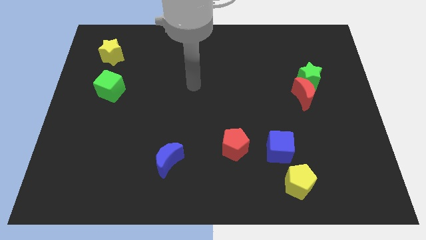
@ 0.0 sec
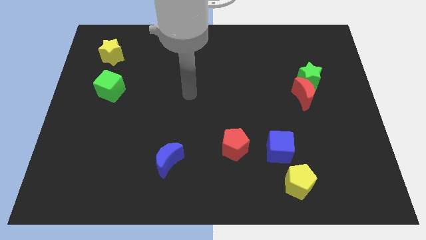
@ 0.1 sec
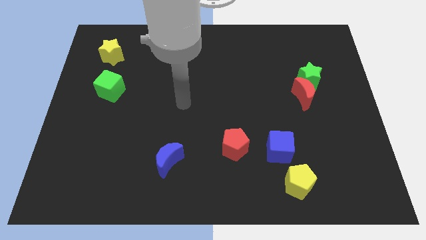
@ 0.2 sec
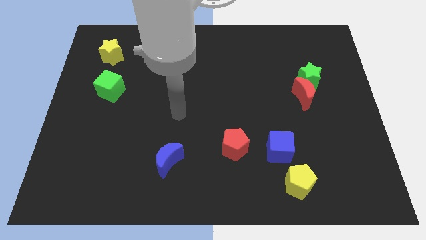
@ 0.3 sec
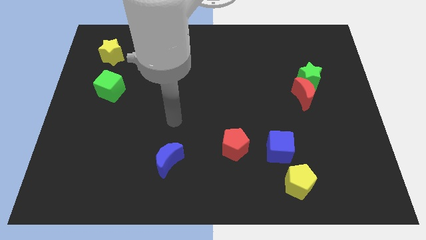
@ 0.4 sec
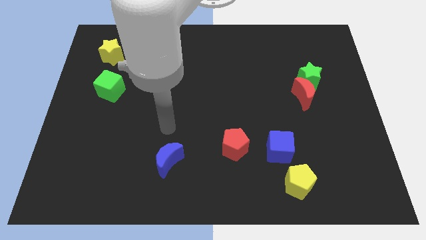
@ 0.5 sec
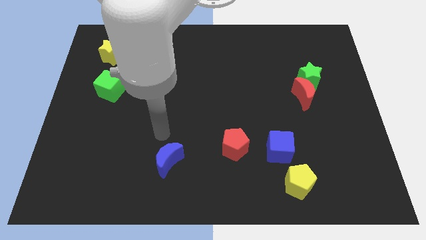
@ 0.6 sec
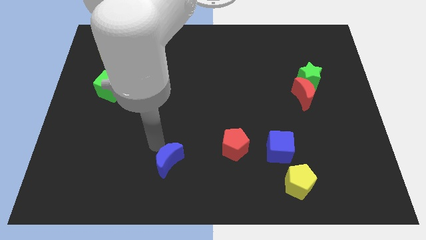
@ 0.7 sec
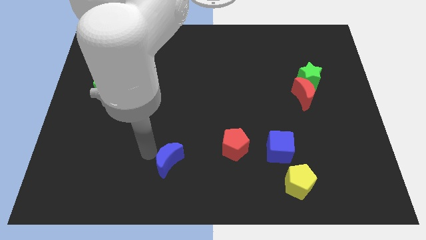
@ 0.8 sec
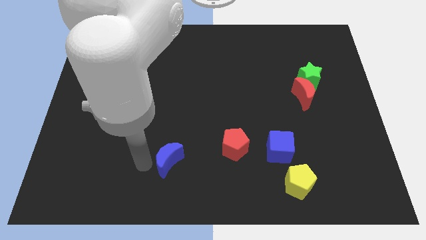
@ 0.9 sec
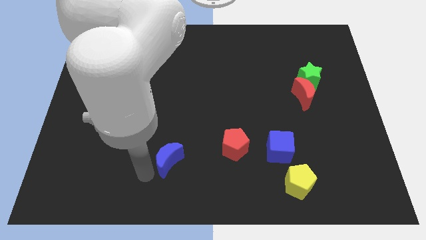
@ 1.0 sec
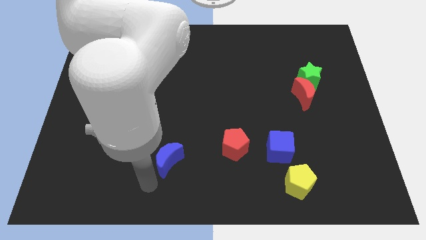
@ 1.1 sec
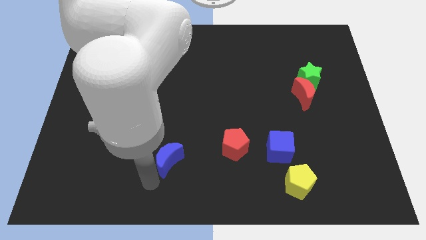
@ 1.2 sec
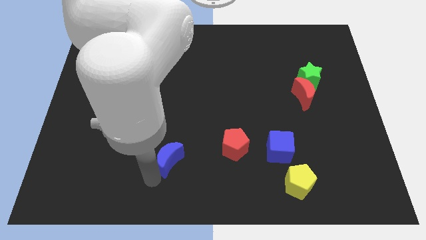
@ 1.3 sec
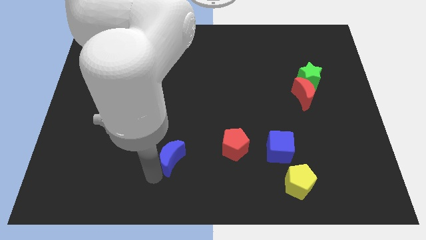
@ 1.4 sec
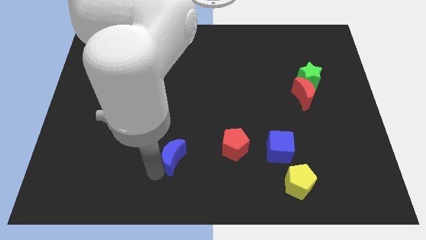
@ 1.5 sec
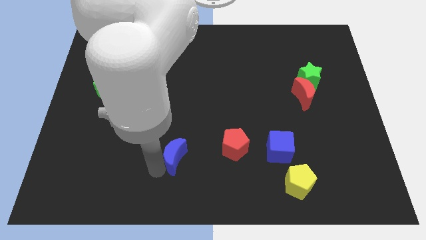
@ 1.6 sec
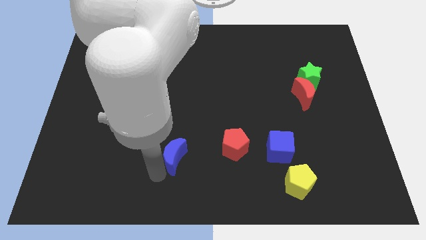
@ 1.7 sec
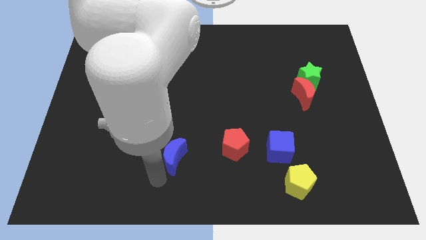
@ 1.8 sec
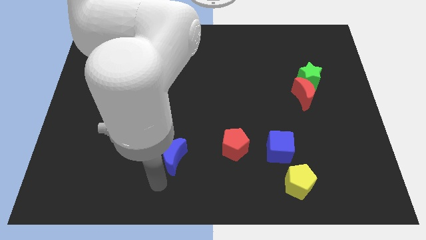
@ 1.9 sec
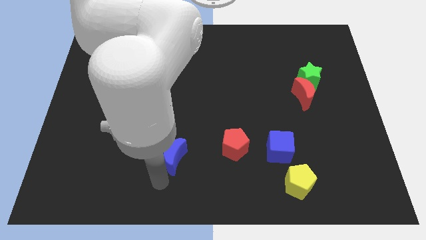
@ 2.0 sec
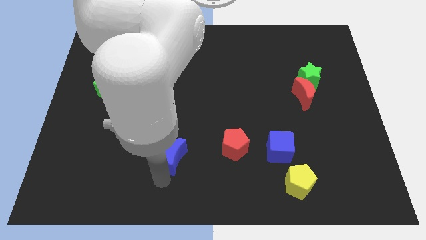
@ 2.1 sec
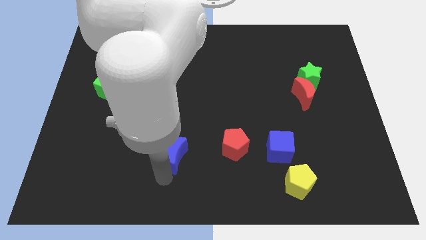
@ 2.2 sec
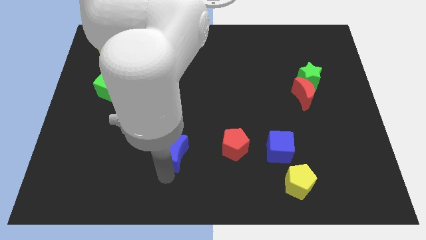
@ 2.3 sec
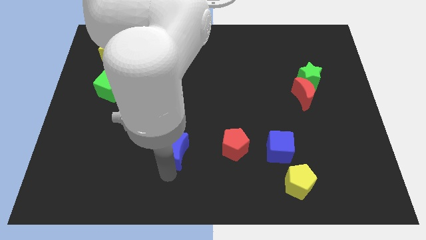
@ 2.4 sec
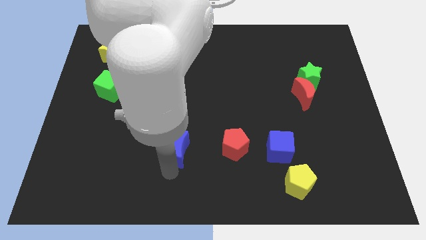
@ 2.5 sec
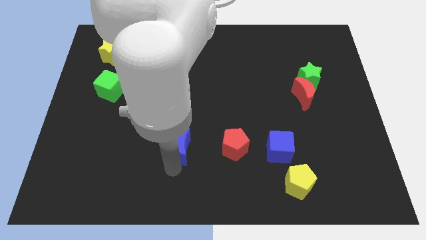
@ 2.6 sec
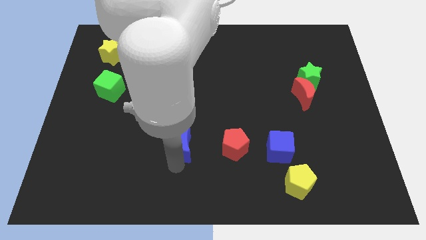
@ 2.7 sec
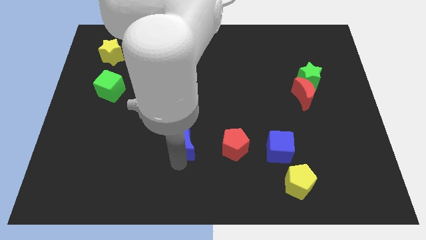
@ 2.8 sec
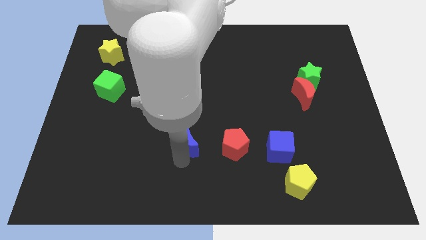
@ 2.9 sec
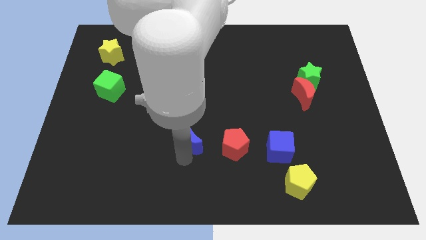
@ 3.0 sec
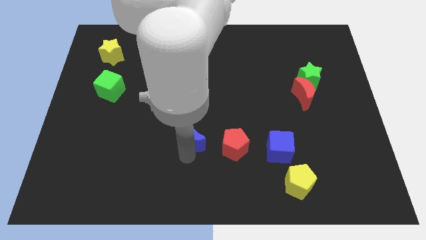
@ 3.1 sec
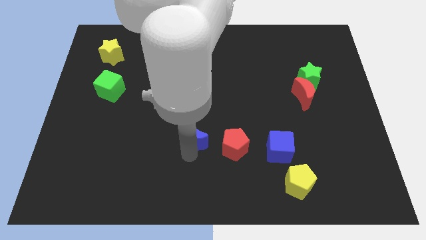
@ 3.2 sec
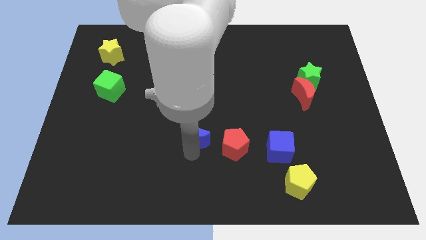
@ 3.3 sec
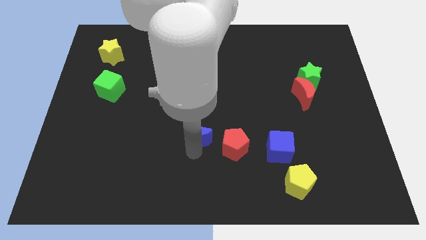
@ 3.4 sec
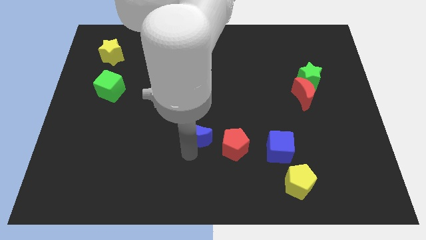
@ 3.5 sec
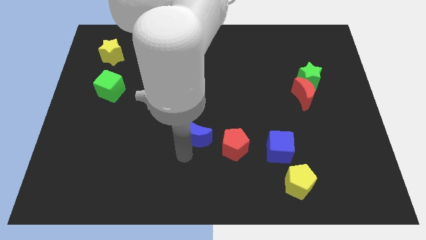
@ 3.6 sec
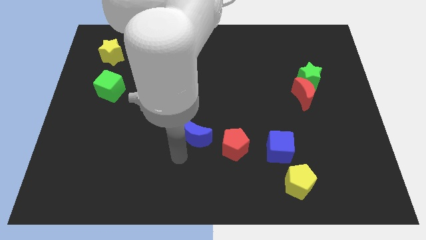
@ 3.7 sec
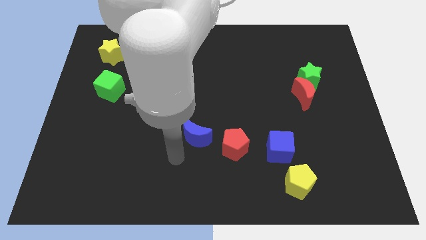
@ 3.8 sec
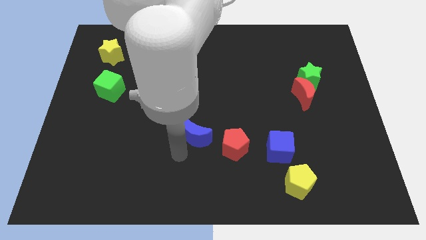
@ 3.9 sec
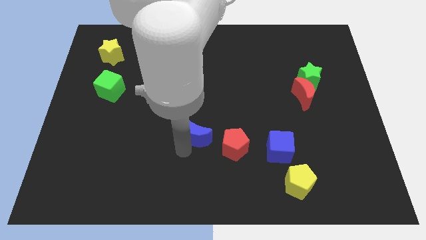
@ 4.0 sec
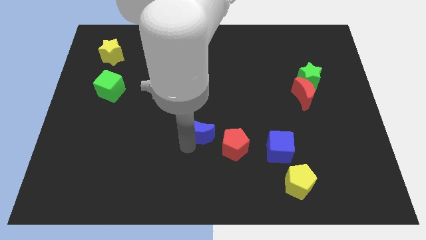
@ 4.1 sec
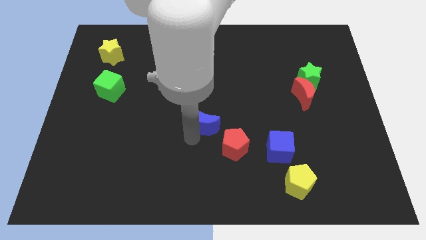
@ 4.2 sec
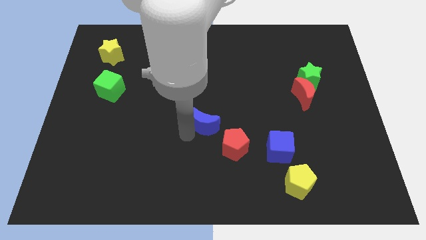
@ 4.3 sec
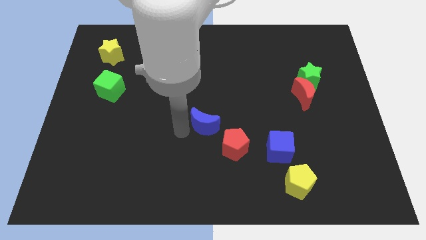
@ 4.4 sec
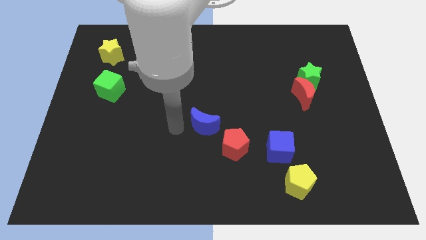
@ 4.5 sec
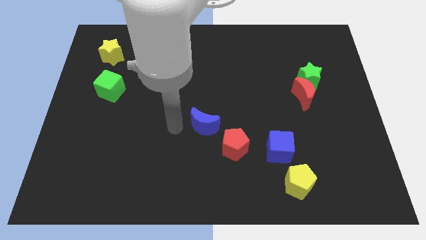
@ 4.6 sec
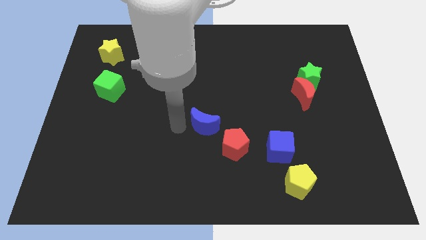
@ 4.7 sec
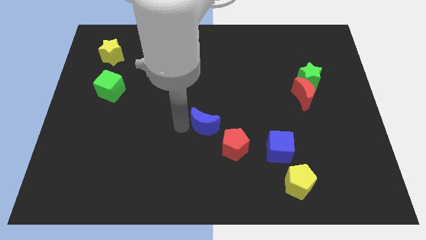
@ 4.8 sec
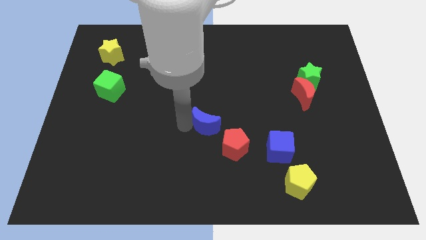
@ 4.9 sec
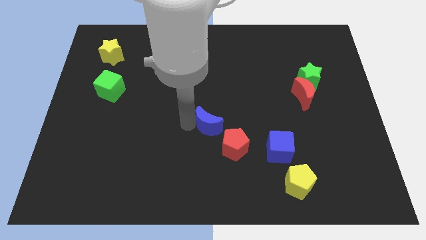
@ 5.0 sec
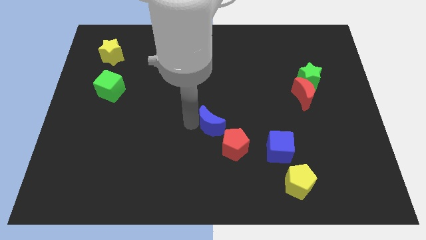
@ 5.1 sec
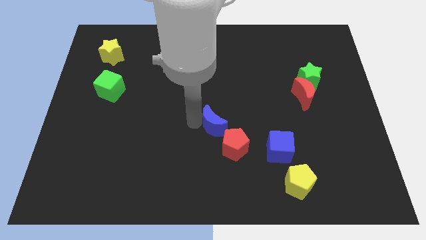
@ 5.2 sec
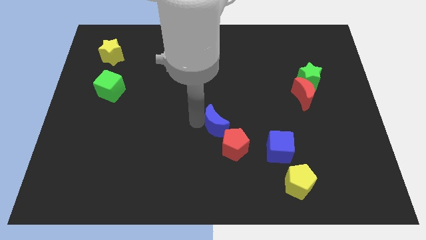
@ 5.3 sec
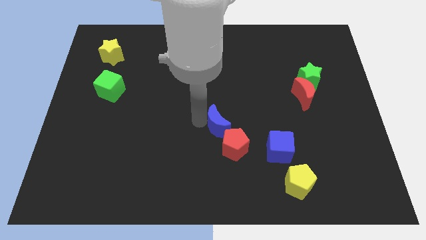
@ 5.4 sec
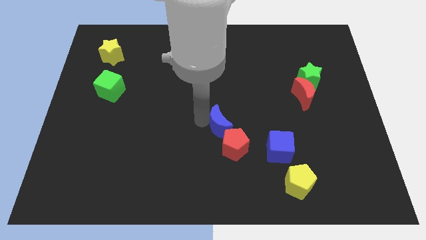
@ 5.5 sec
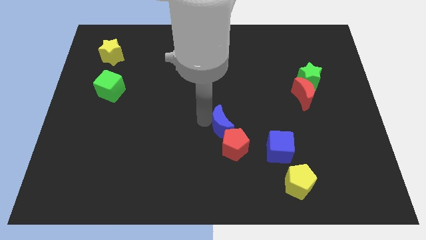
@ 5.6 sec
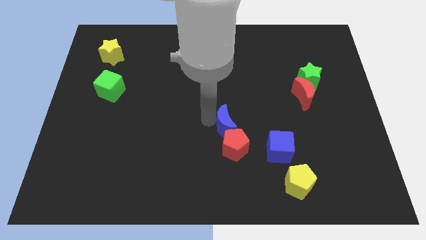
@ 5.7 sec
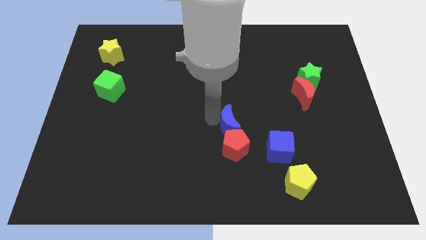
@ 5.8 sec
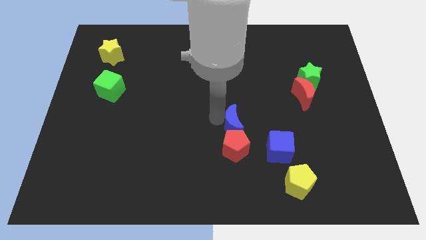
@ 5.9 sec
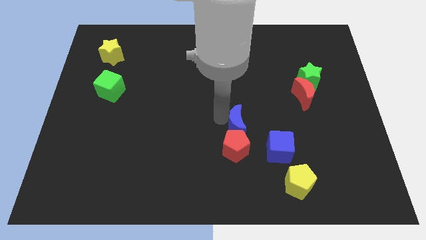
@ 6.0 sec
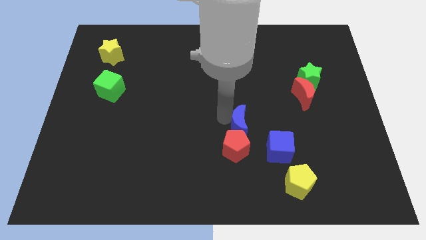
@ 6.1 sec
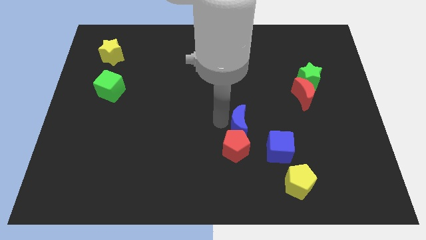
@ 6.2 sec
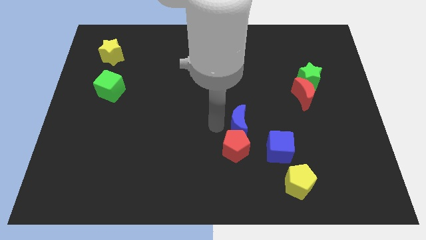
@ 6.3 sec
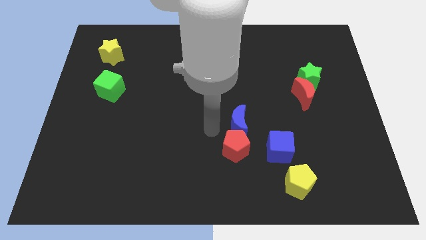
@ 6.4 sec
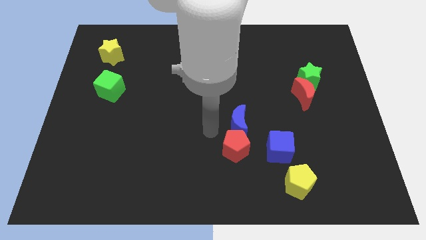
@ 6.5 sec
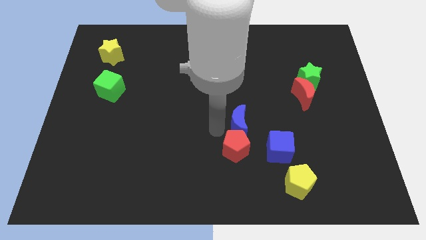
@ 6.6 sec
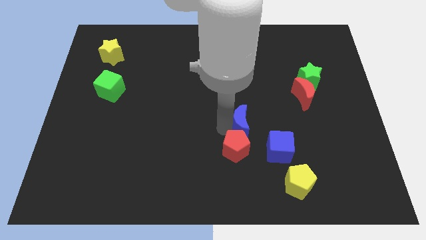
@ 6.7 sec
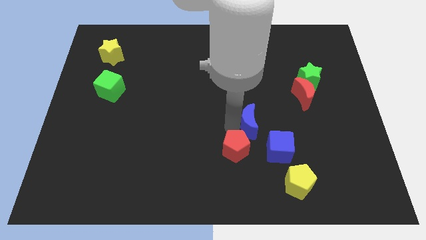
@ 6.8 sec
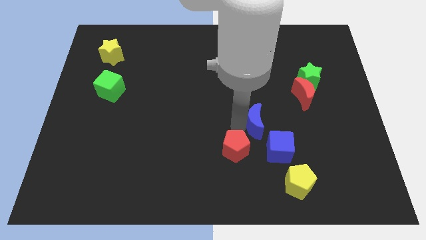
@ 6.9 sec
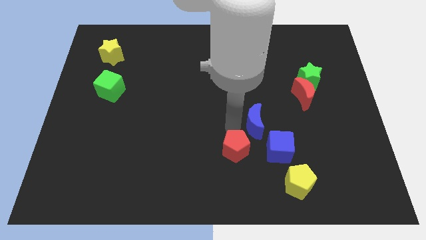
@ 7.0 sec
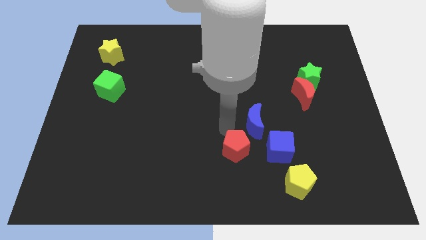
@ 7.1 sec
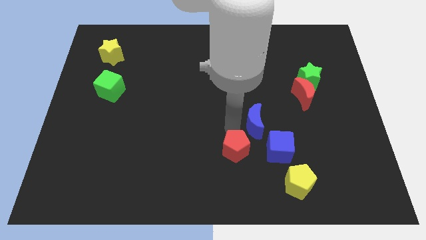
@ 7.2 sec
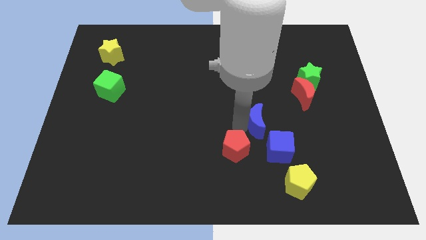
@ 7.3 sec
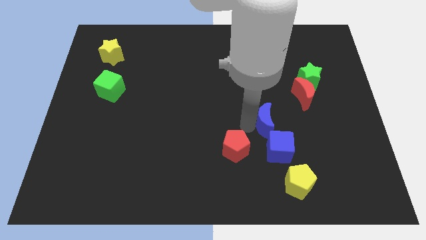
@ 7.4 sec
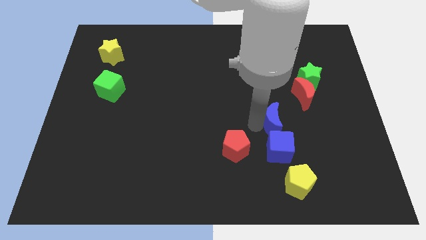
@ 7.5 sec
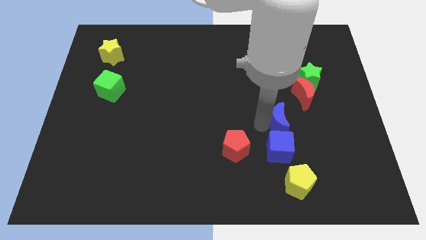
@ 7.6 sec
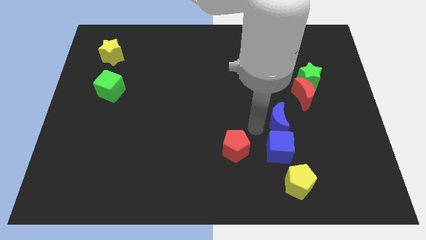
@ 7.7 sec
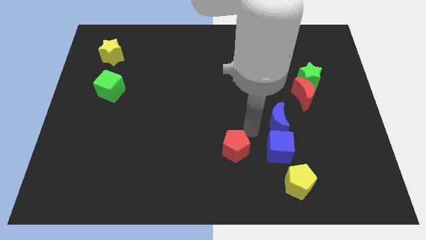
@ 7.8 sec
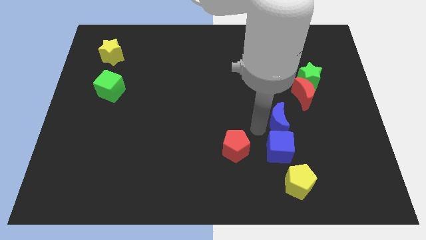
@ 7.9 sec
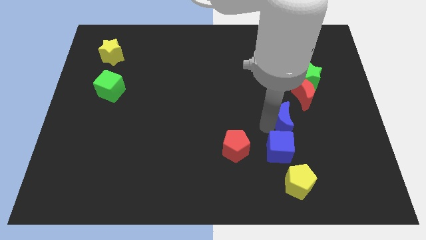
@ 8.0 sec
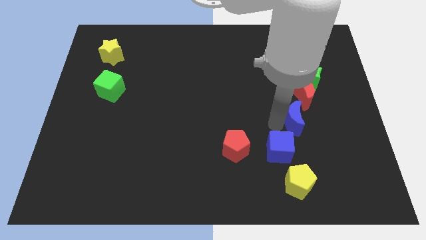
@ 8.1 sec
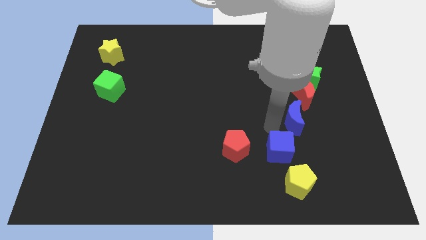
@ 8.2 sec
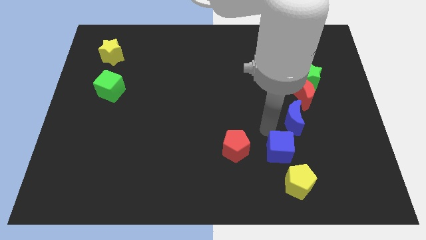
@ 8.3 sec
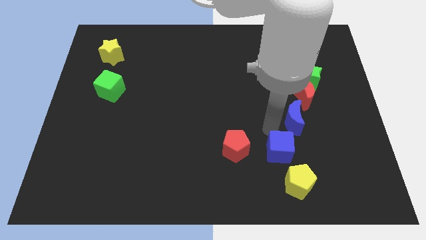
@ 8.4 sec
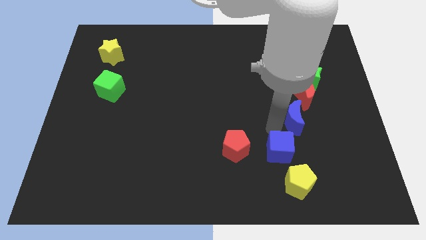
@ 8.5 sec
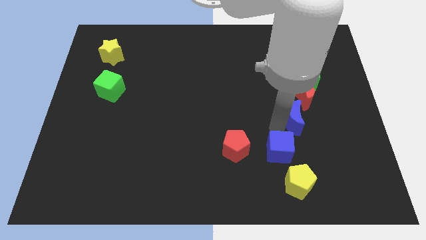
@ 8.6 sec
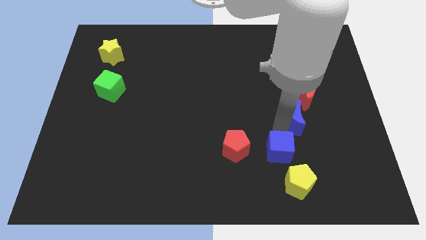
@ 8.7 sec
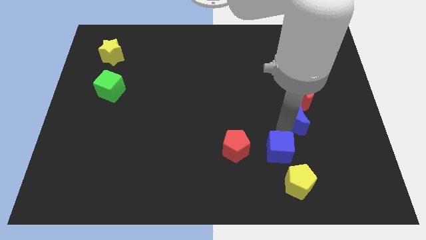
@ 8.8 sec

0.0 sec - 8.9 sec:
move the blue moon to the bottom side of the green star
